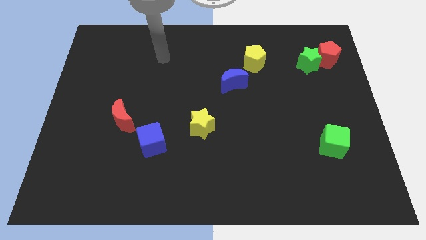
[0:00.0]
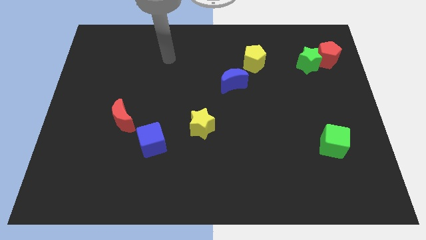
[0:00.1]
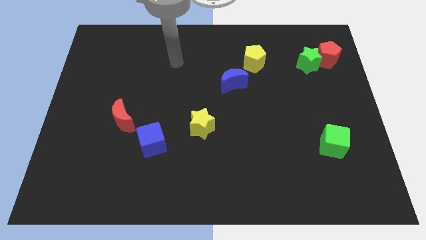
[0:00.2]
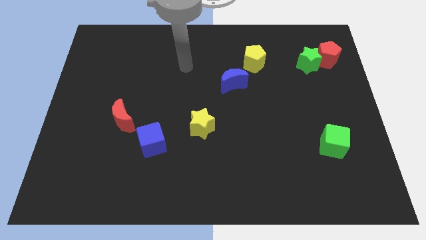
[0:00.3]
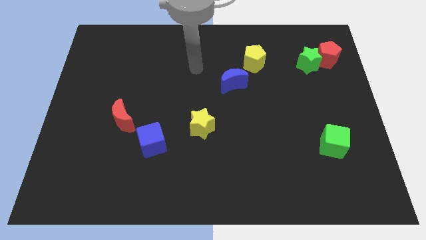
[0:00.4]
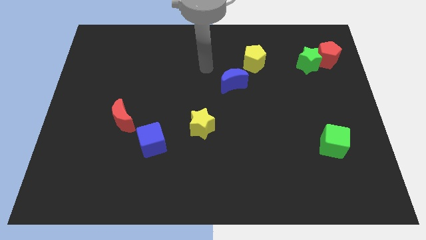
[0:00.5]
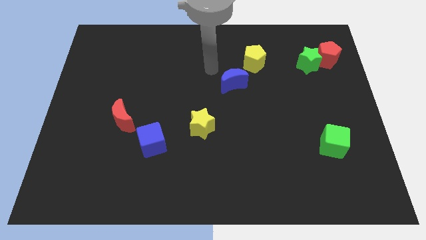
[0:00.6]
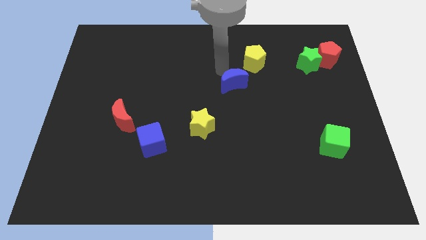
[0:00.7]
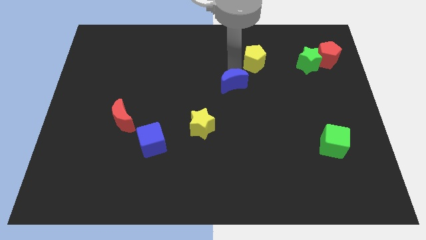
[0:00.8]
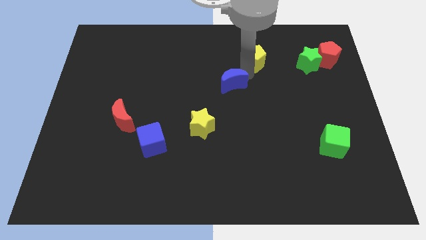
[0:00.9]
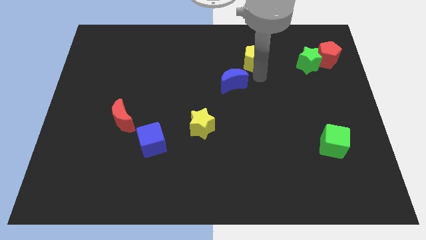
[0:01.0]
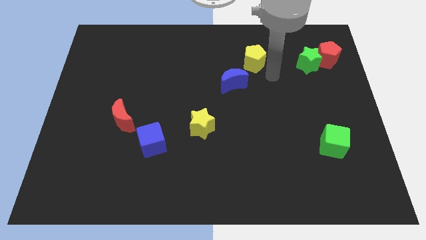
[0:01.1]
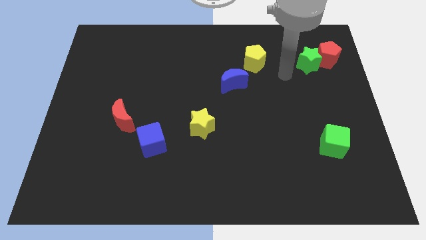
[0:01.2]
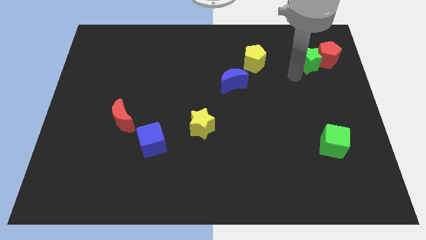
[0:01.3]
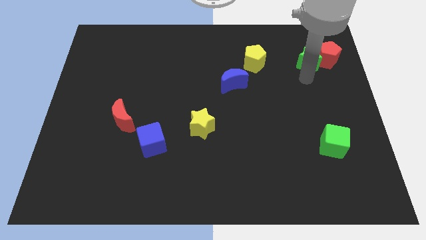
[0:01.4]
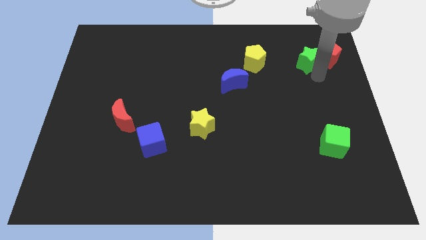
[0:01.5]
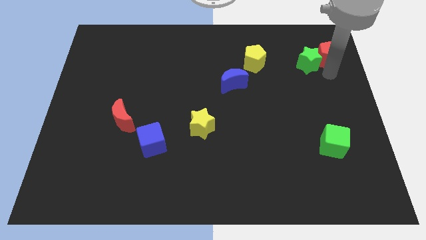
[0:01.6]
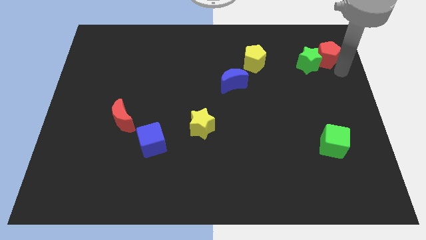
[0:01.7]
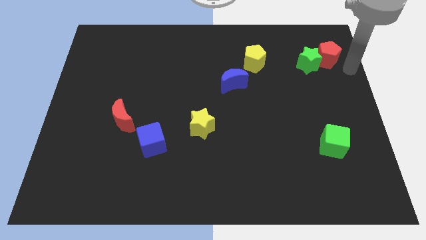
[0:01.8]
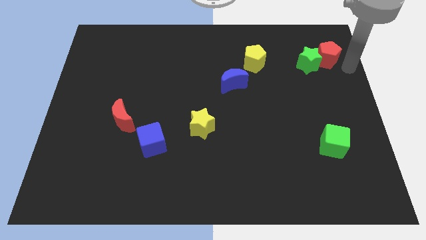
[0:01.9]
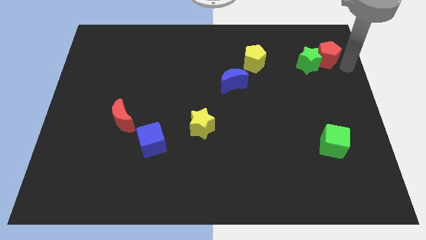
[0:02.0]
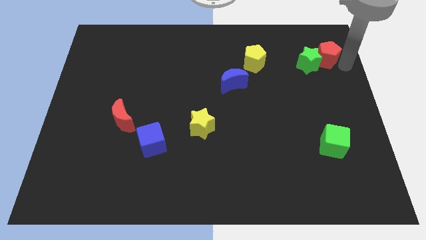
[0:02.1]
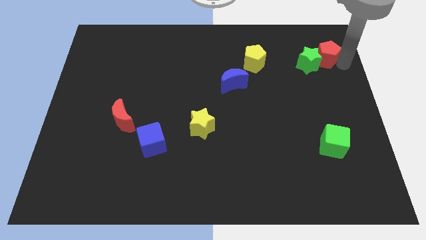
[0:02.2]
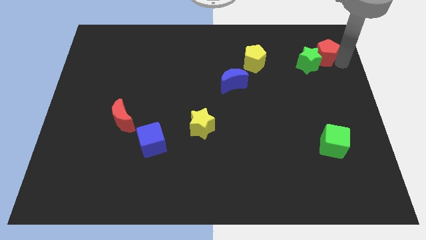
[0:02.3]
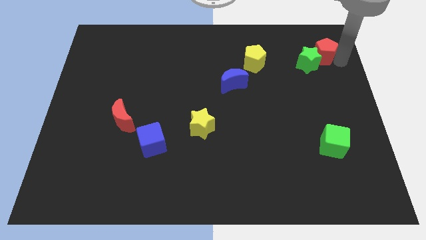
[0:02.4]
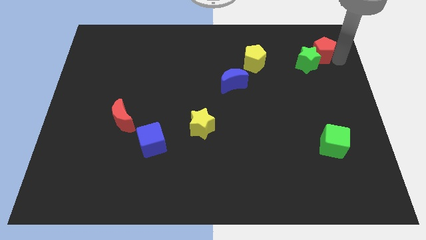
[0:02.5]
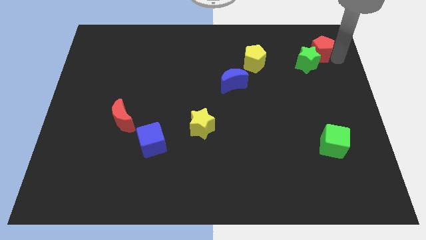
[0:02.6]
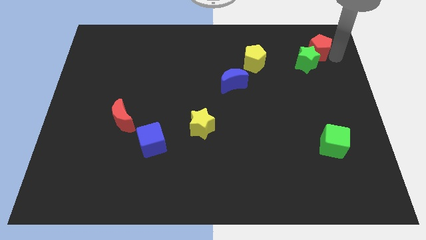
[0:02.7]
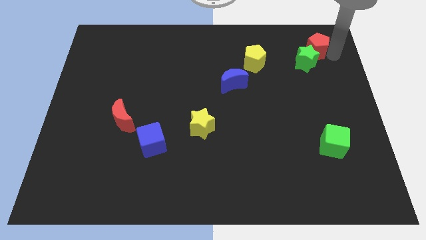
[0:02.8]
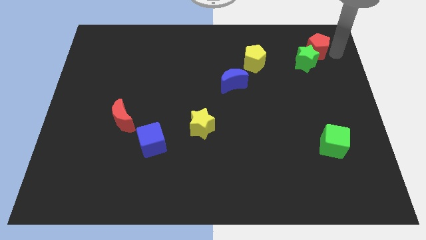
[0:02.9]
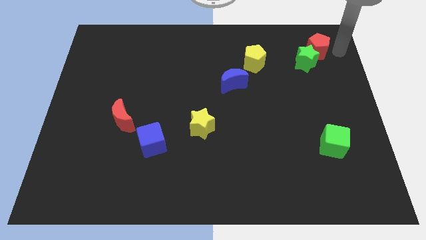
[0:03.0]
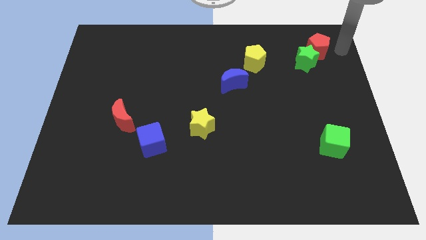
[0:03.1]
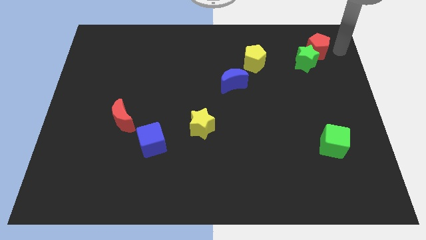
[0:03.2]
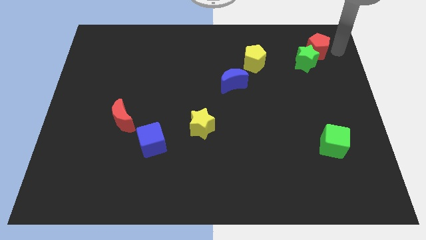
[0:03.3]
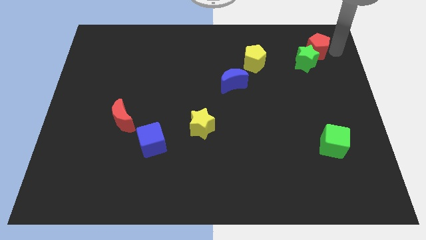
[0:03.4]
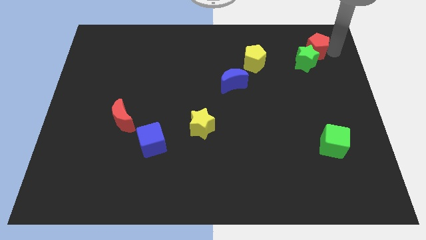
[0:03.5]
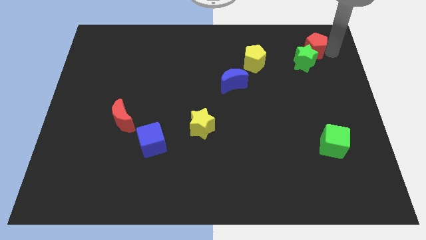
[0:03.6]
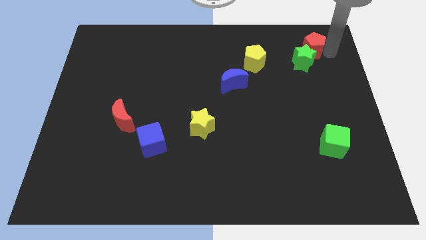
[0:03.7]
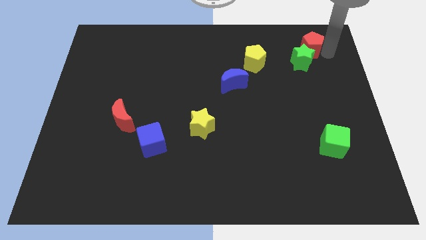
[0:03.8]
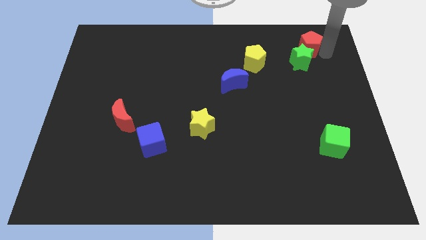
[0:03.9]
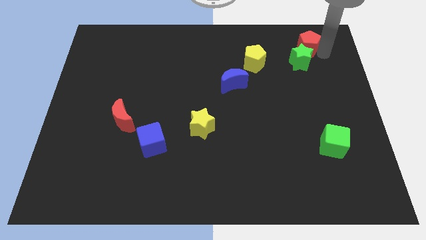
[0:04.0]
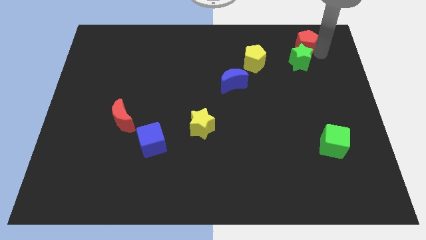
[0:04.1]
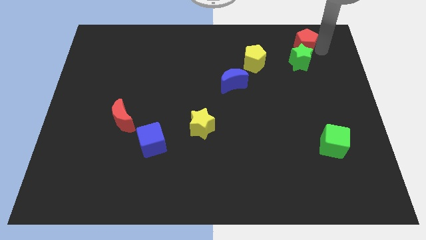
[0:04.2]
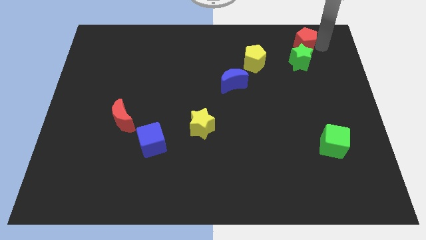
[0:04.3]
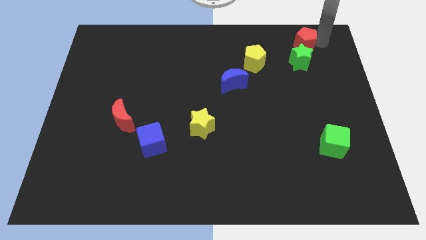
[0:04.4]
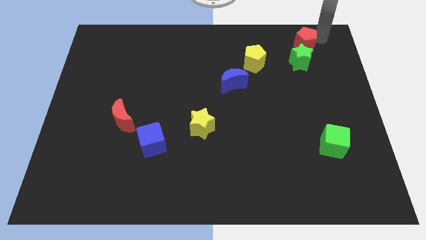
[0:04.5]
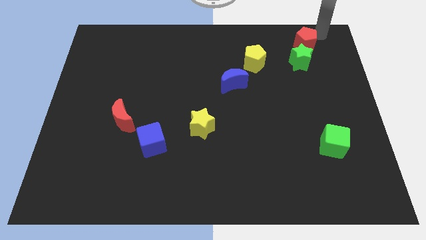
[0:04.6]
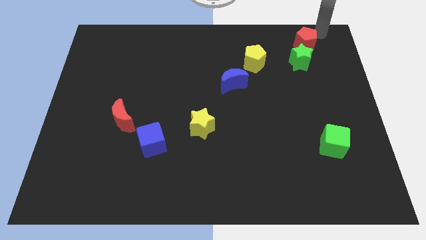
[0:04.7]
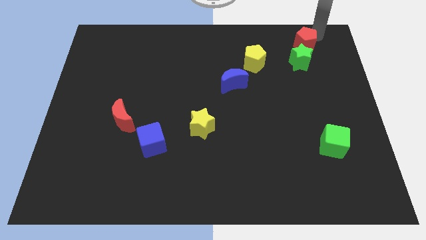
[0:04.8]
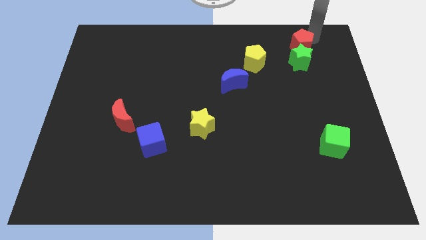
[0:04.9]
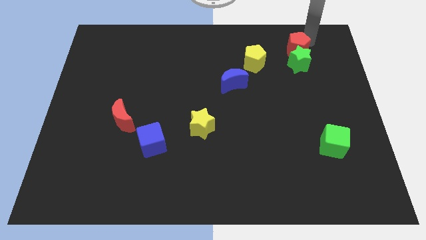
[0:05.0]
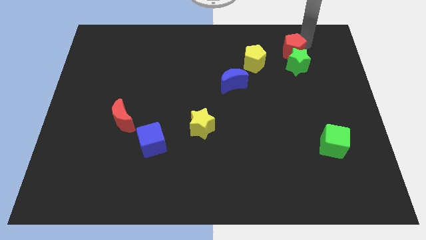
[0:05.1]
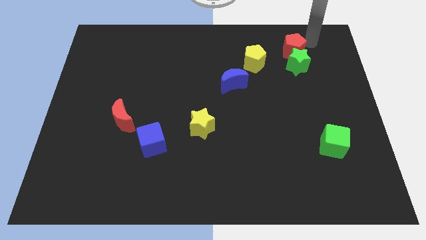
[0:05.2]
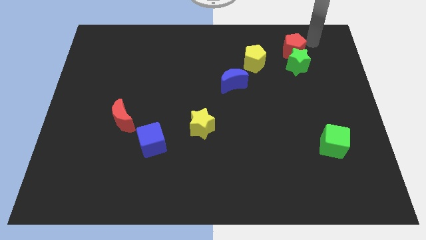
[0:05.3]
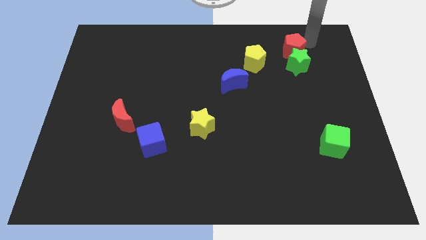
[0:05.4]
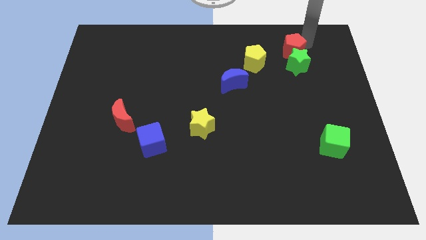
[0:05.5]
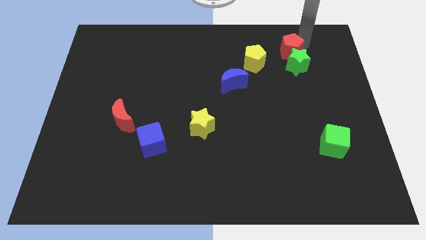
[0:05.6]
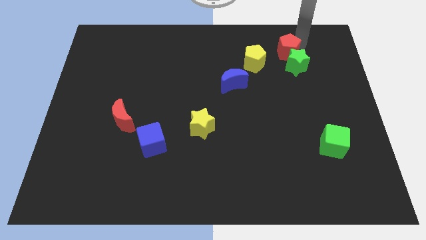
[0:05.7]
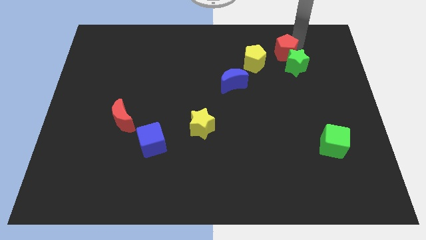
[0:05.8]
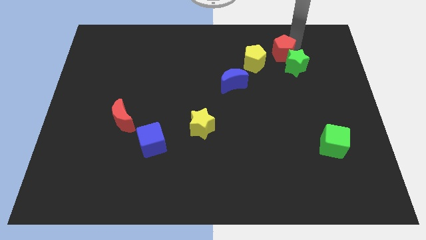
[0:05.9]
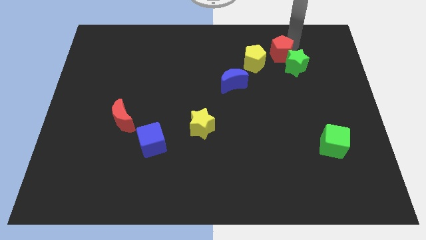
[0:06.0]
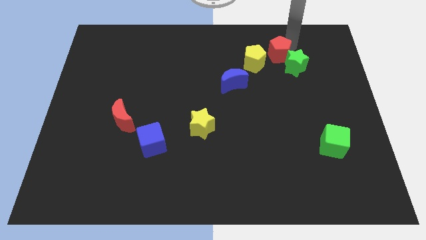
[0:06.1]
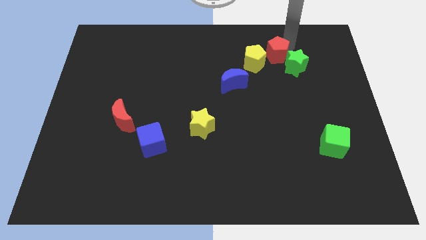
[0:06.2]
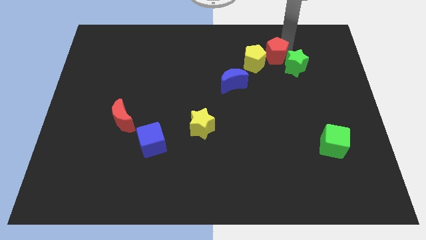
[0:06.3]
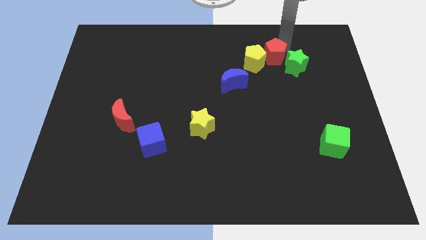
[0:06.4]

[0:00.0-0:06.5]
push the red pentagon to the yellow pentagon

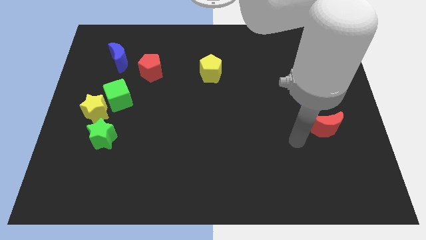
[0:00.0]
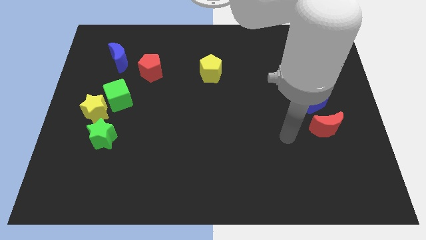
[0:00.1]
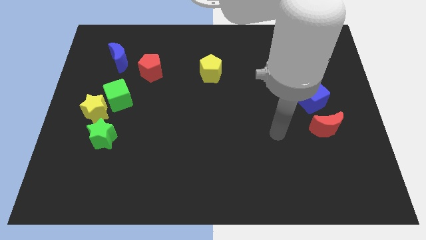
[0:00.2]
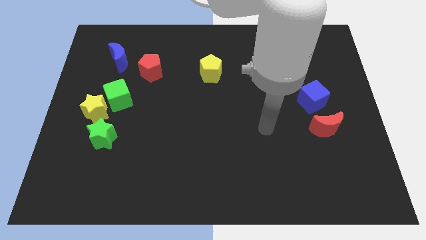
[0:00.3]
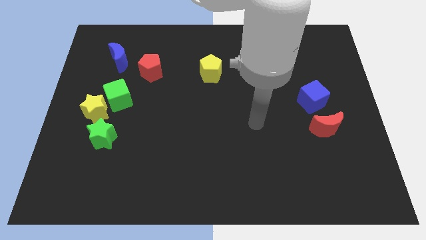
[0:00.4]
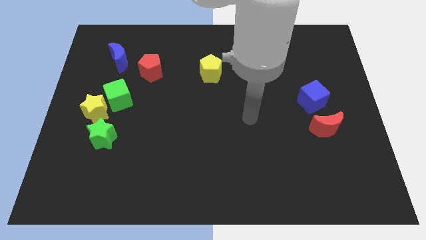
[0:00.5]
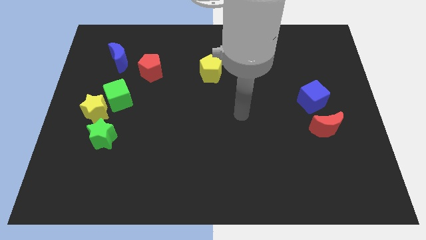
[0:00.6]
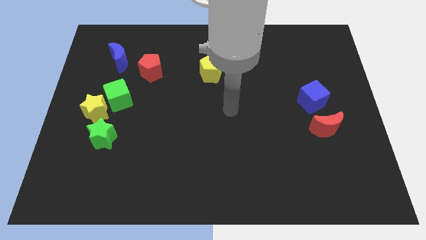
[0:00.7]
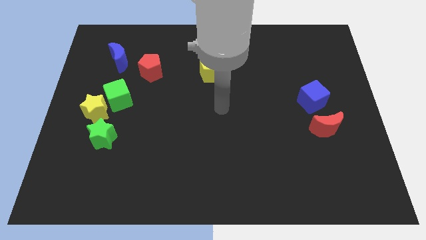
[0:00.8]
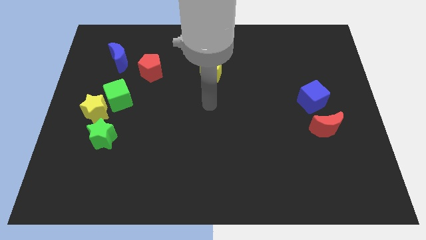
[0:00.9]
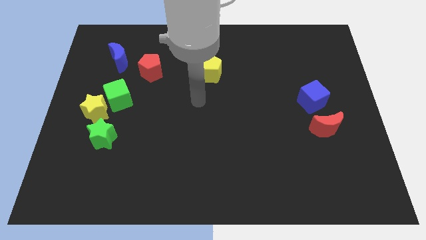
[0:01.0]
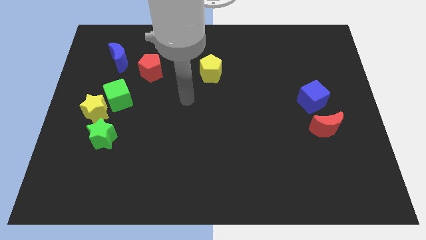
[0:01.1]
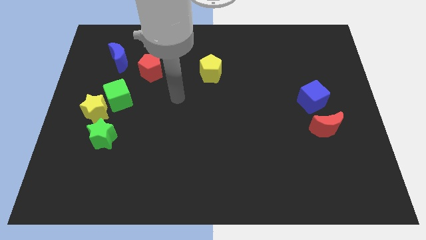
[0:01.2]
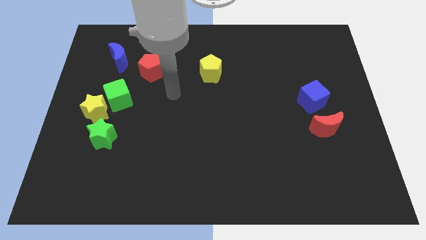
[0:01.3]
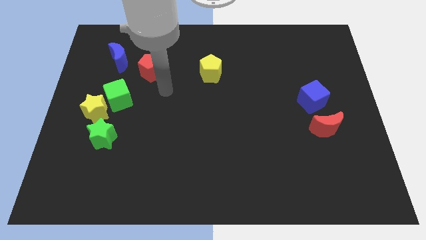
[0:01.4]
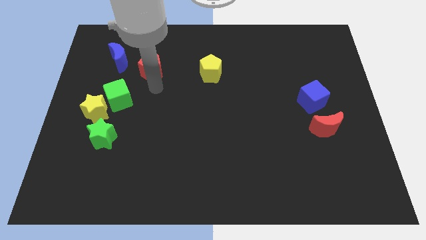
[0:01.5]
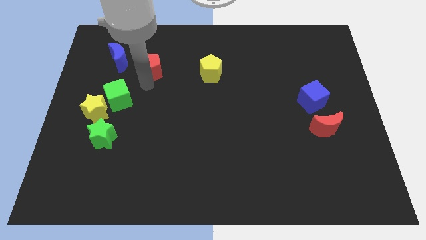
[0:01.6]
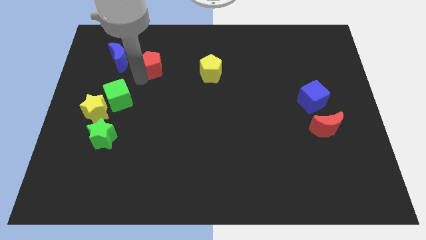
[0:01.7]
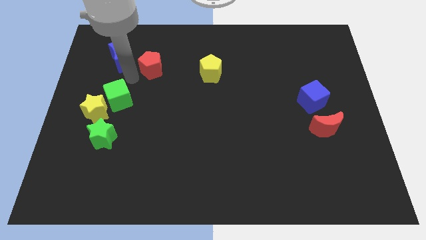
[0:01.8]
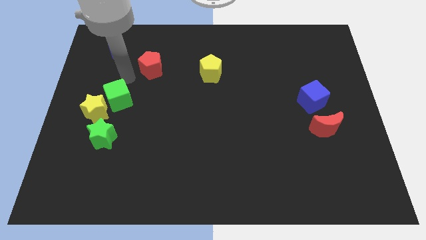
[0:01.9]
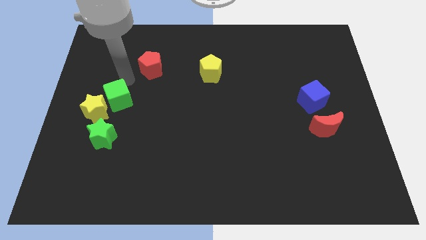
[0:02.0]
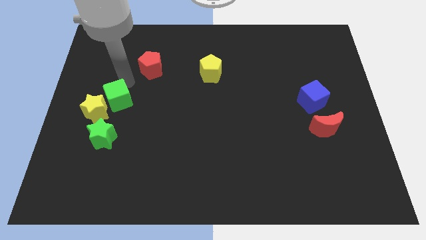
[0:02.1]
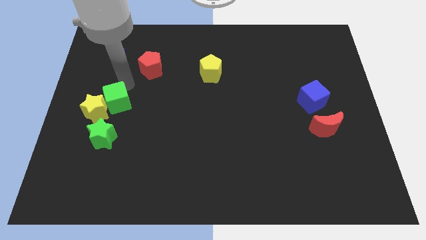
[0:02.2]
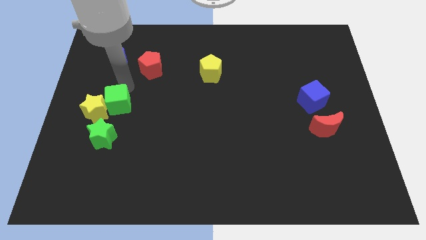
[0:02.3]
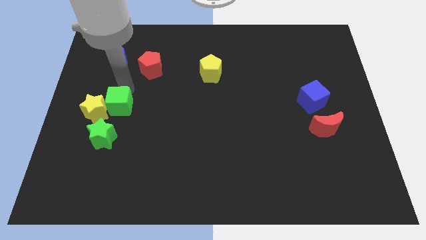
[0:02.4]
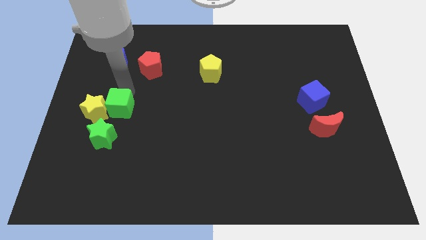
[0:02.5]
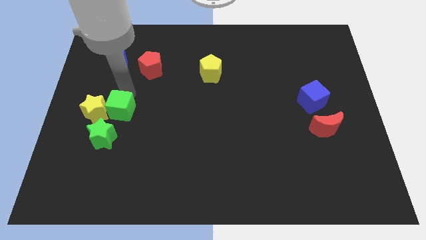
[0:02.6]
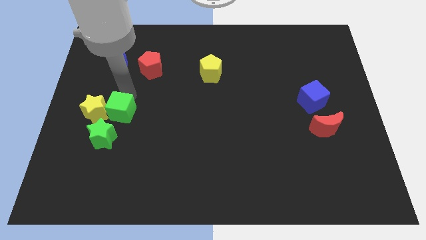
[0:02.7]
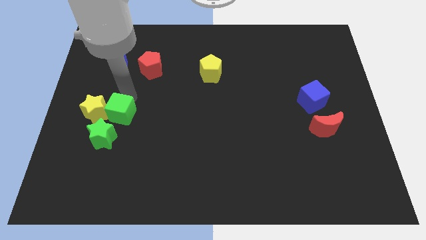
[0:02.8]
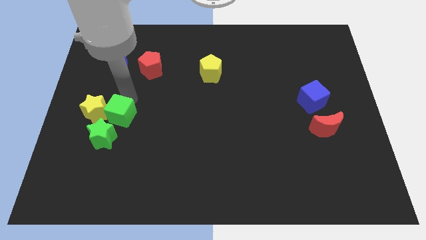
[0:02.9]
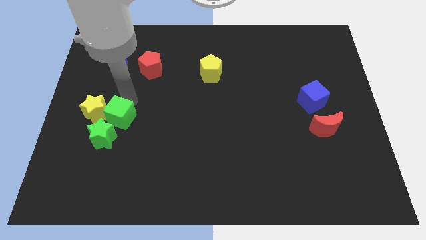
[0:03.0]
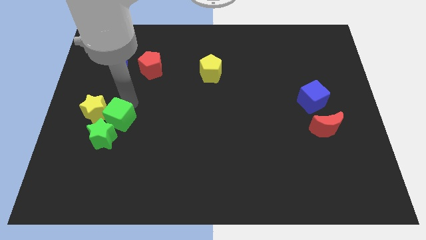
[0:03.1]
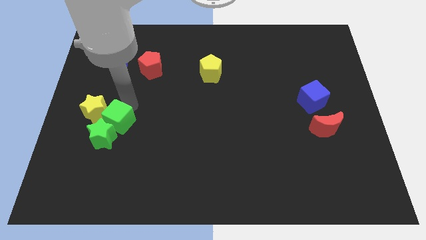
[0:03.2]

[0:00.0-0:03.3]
push the green cube towards the green star
